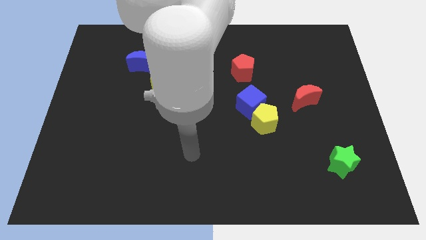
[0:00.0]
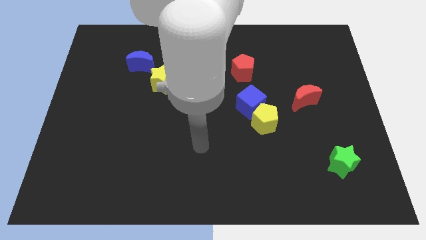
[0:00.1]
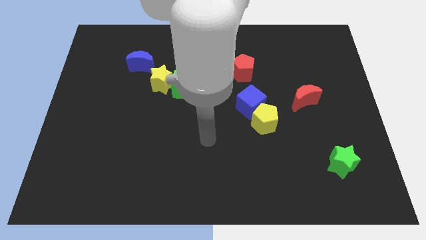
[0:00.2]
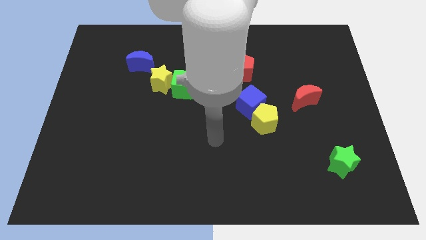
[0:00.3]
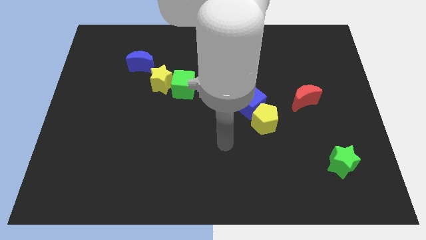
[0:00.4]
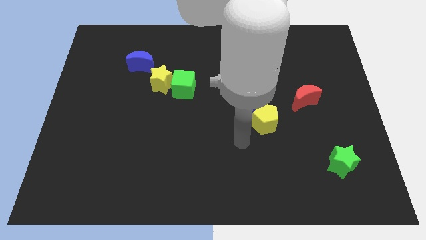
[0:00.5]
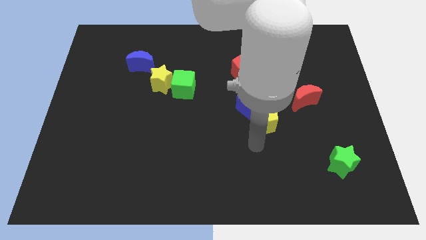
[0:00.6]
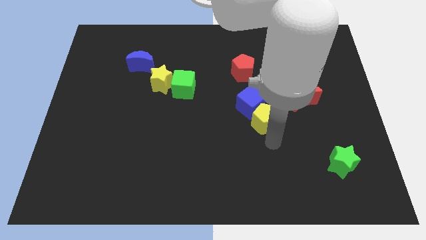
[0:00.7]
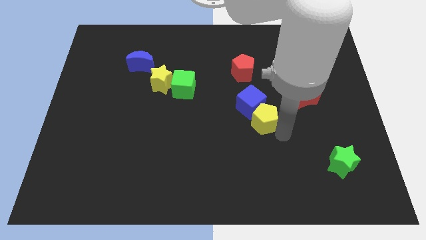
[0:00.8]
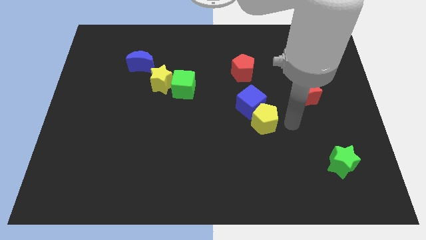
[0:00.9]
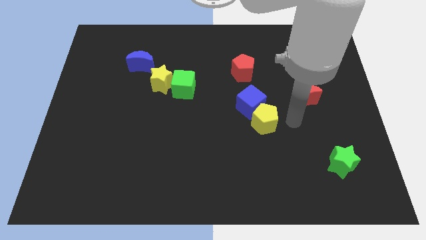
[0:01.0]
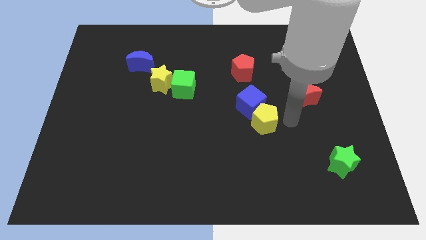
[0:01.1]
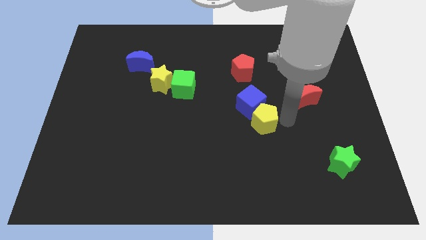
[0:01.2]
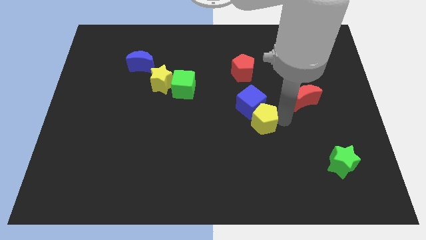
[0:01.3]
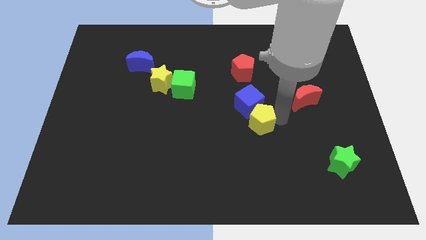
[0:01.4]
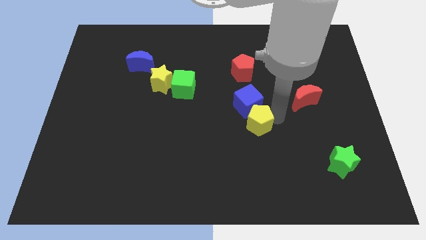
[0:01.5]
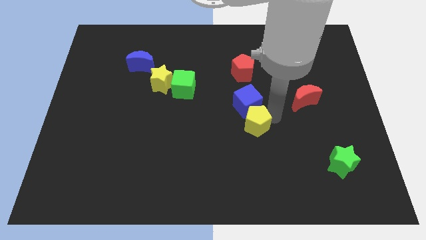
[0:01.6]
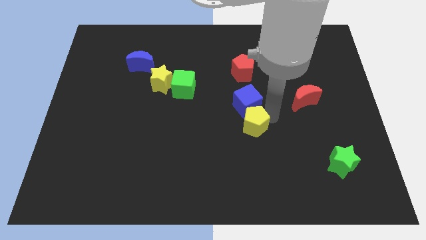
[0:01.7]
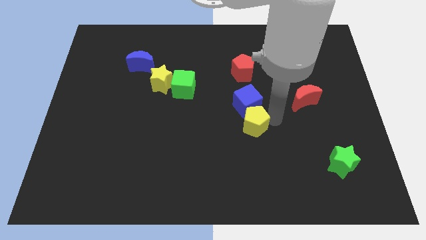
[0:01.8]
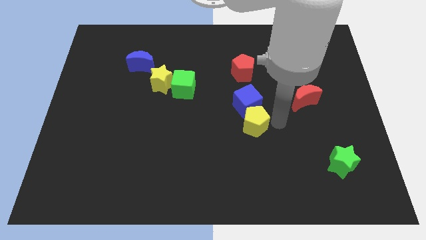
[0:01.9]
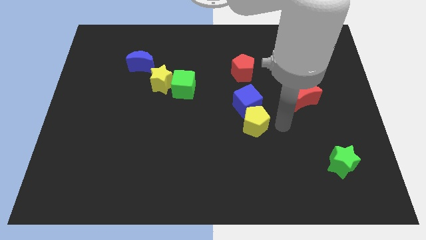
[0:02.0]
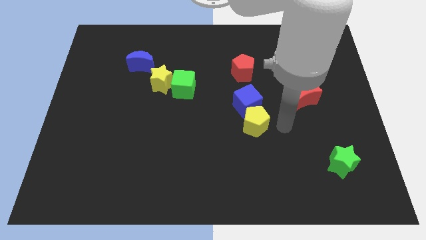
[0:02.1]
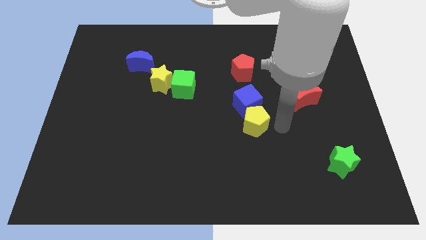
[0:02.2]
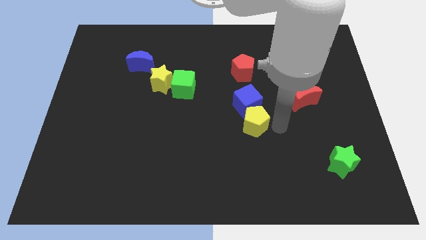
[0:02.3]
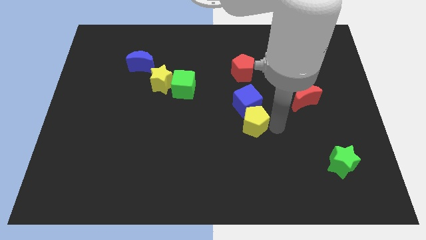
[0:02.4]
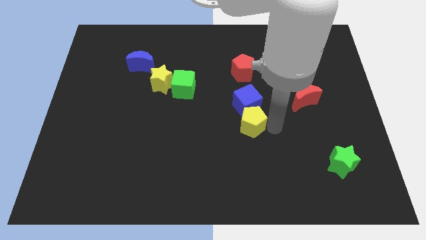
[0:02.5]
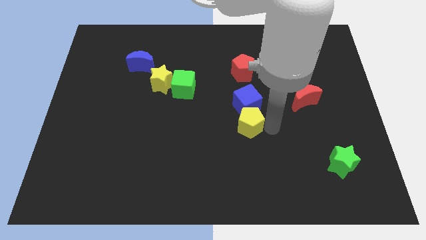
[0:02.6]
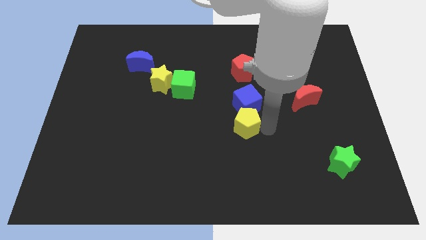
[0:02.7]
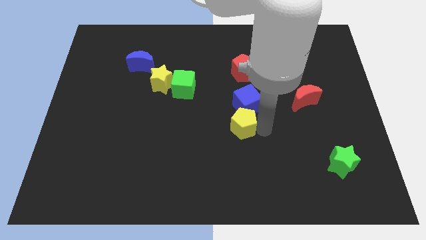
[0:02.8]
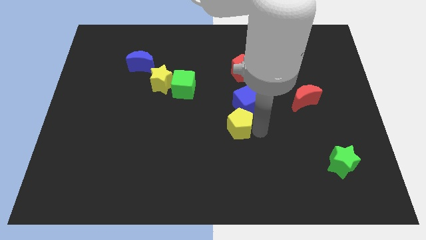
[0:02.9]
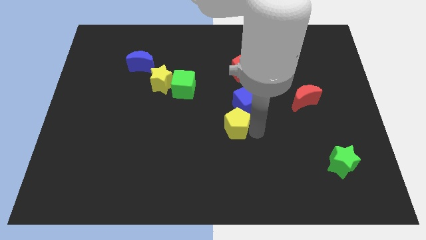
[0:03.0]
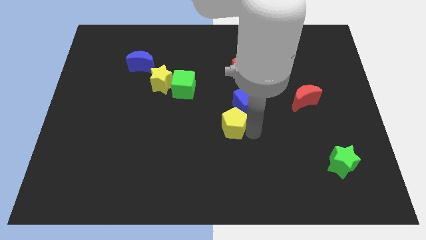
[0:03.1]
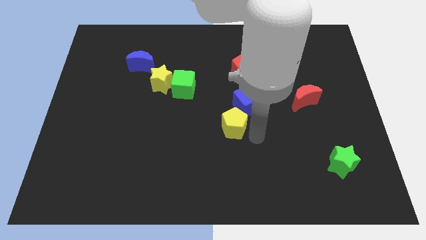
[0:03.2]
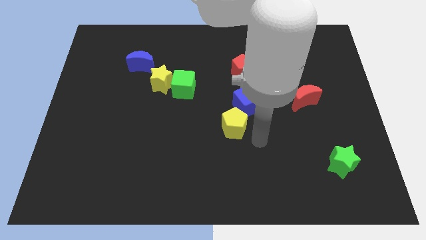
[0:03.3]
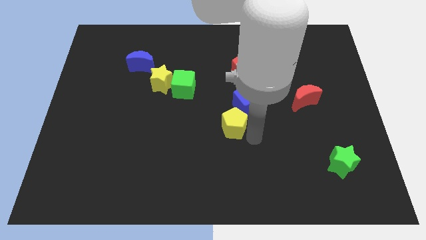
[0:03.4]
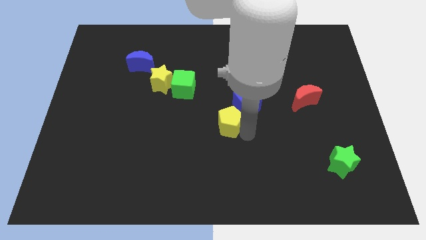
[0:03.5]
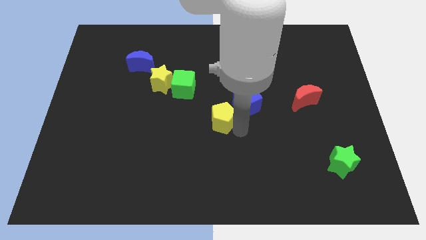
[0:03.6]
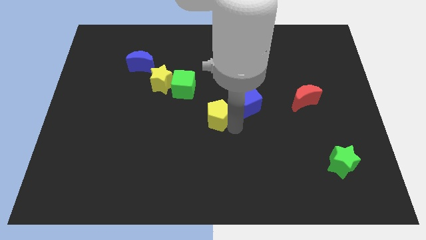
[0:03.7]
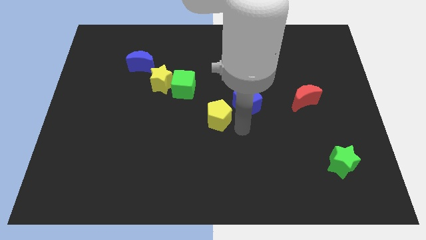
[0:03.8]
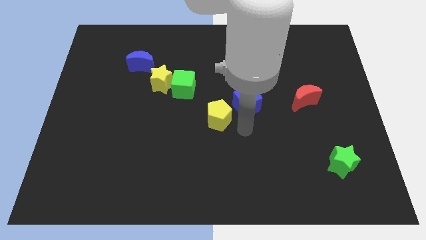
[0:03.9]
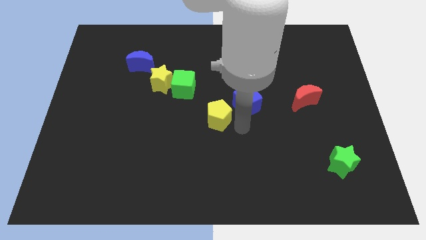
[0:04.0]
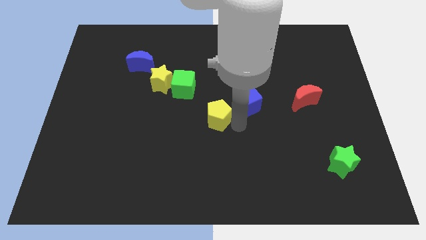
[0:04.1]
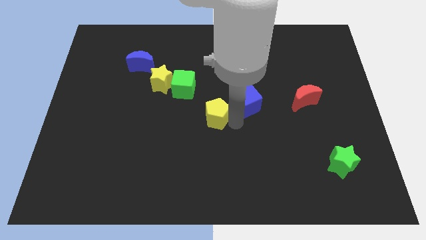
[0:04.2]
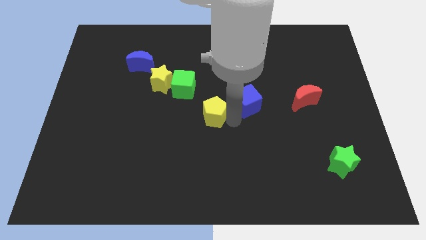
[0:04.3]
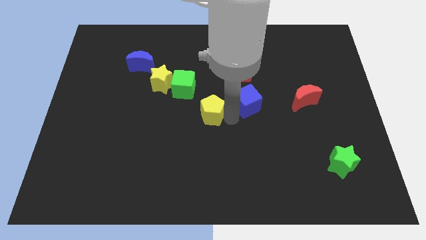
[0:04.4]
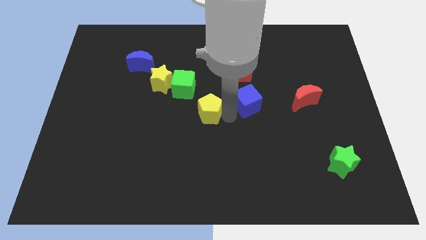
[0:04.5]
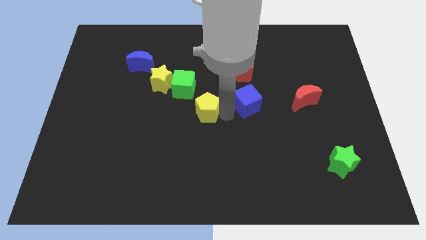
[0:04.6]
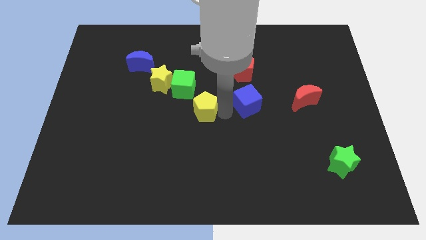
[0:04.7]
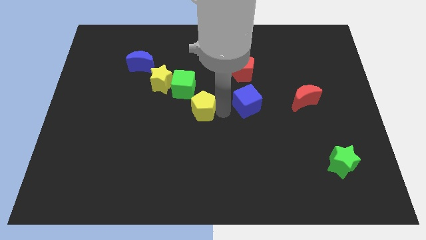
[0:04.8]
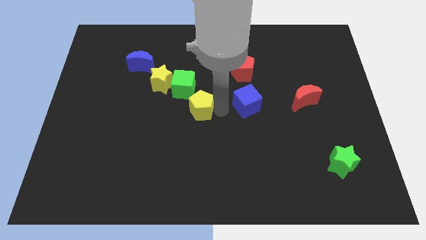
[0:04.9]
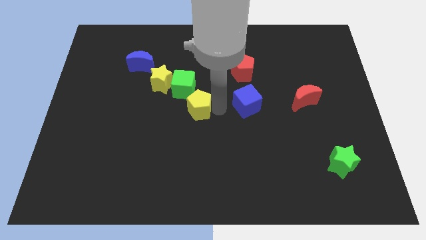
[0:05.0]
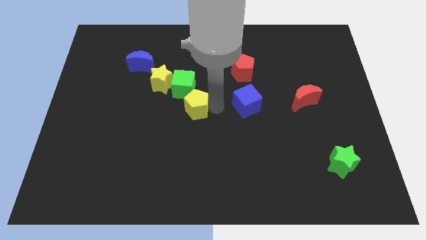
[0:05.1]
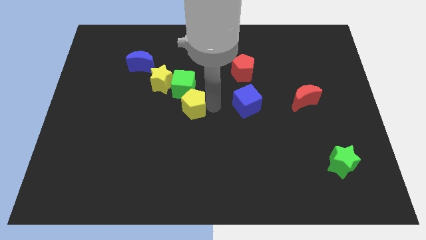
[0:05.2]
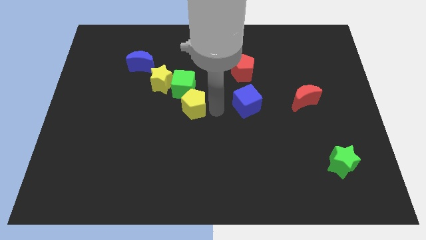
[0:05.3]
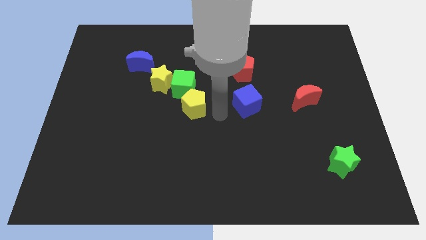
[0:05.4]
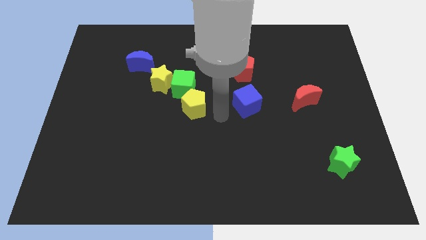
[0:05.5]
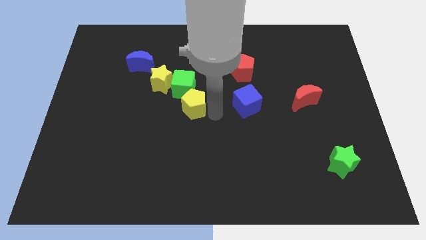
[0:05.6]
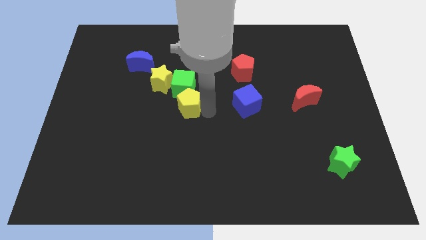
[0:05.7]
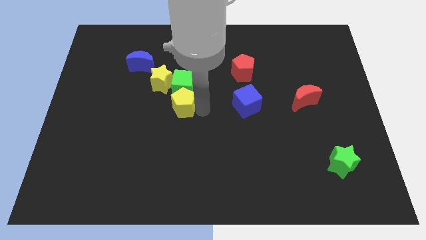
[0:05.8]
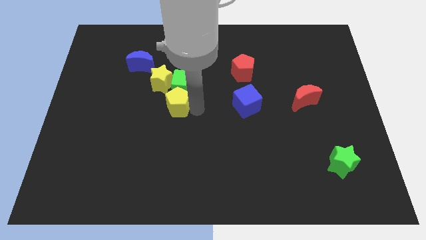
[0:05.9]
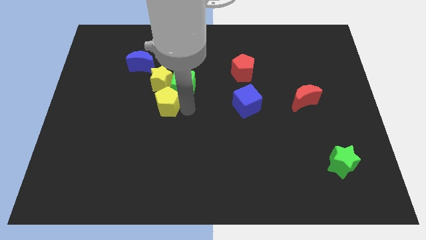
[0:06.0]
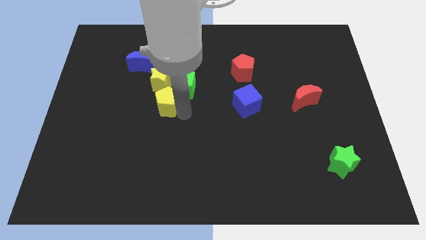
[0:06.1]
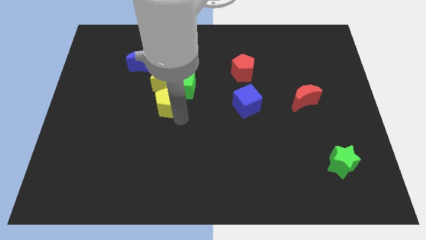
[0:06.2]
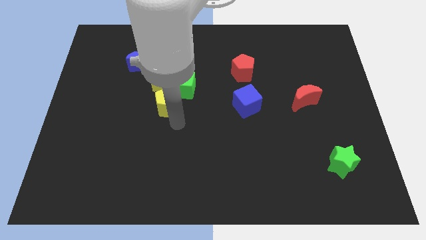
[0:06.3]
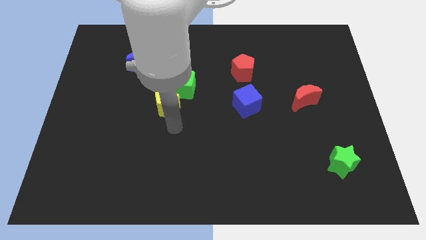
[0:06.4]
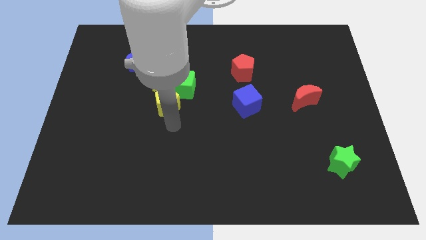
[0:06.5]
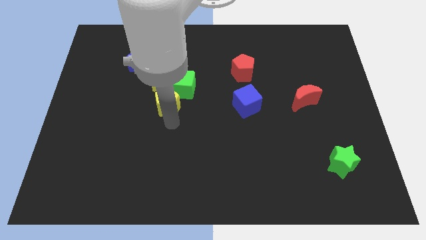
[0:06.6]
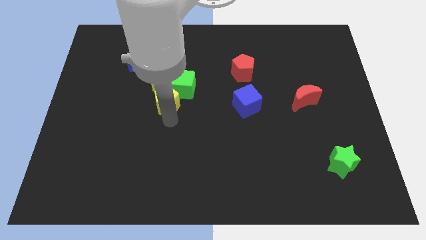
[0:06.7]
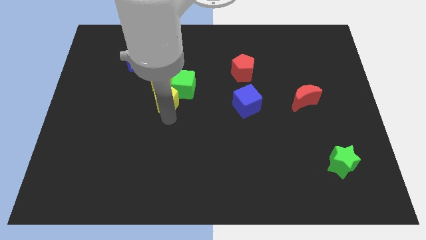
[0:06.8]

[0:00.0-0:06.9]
push the yellow pentagon next to the yellow star

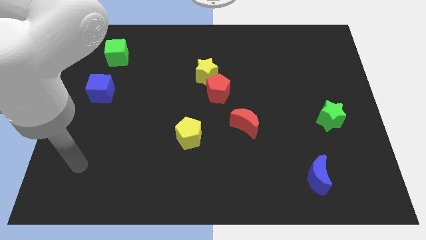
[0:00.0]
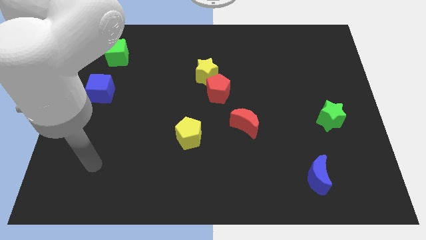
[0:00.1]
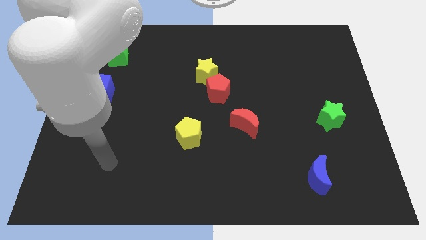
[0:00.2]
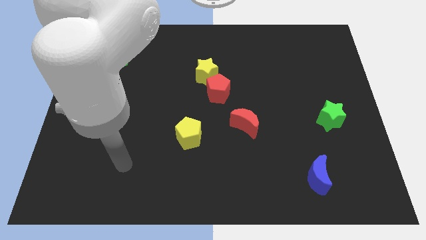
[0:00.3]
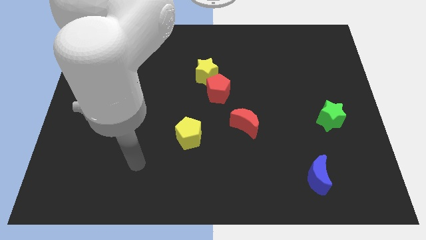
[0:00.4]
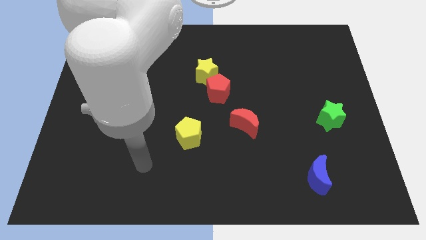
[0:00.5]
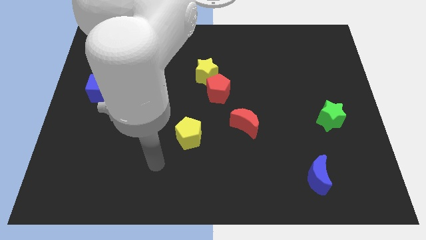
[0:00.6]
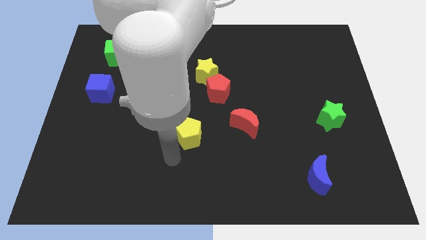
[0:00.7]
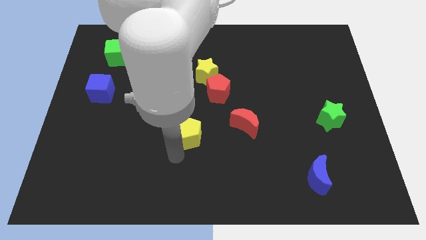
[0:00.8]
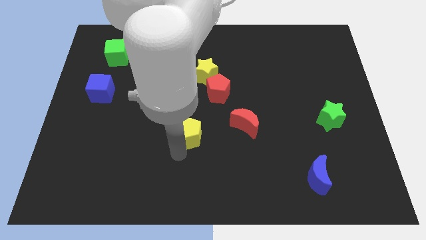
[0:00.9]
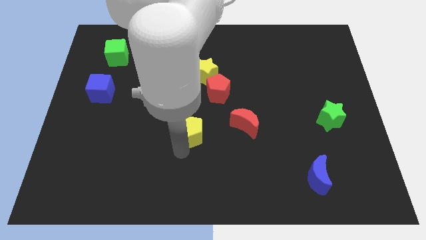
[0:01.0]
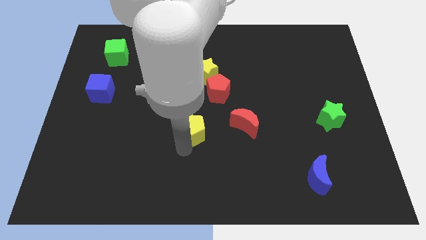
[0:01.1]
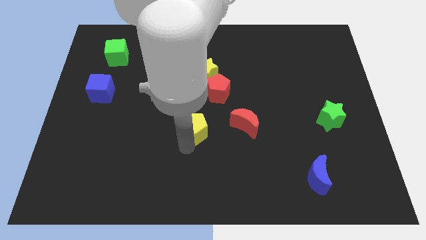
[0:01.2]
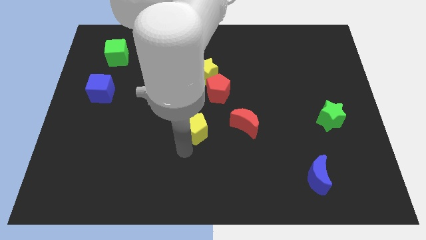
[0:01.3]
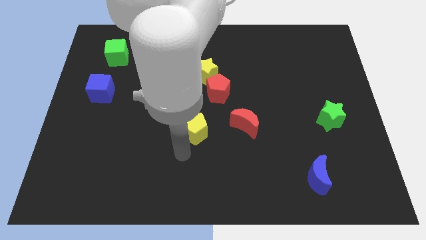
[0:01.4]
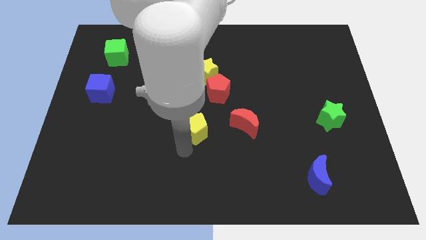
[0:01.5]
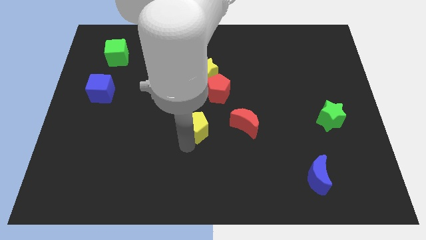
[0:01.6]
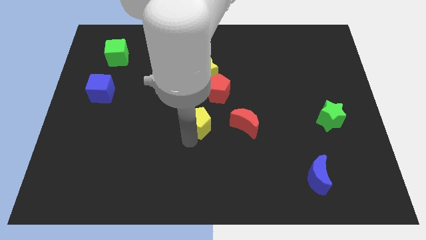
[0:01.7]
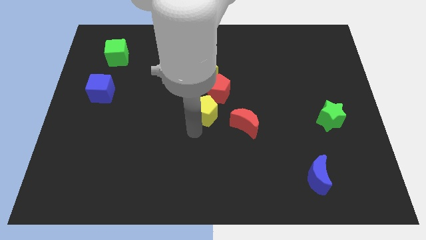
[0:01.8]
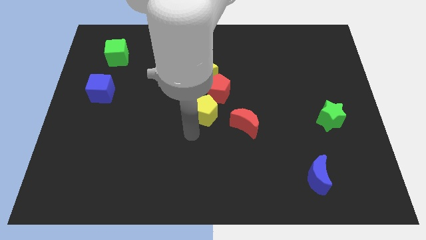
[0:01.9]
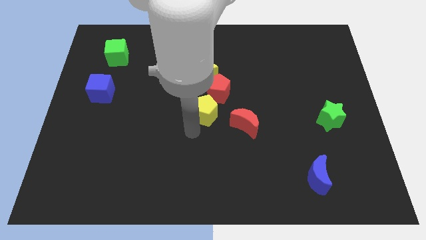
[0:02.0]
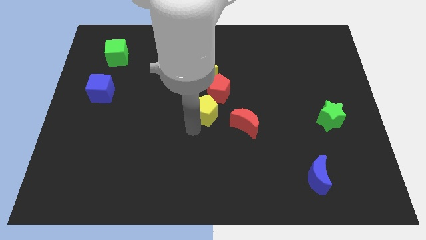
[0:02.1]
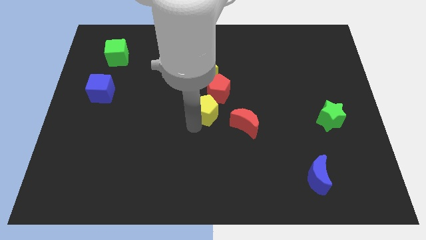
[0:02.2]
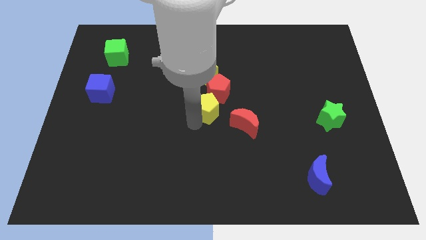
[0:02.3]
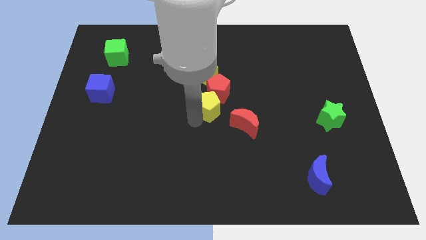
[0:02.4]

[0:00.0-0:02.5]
push the yellow pentagon next to the red pentagon
